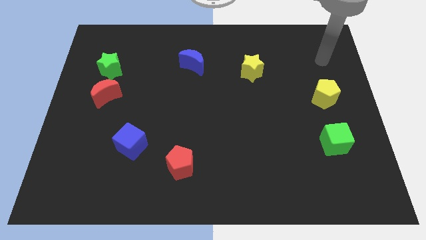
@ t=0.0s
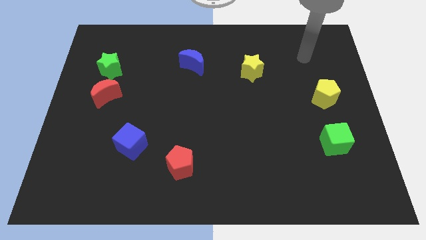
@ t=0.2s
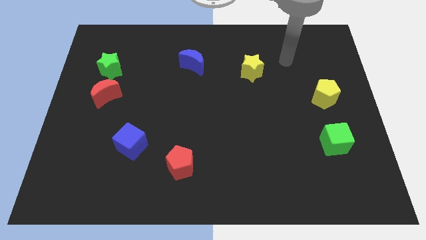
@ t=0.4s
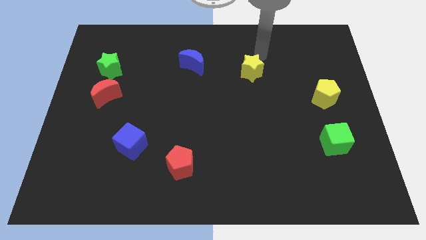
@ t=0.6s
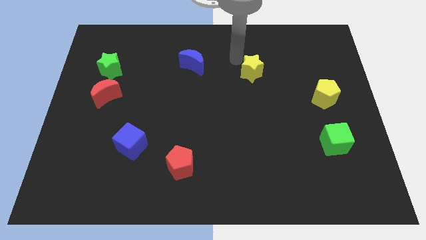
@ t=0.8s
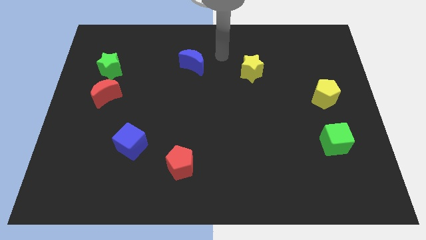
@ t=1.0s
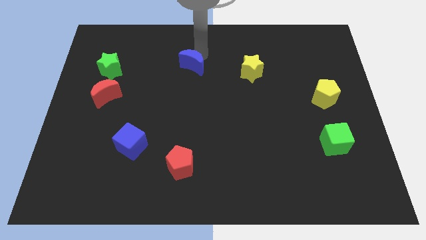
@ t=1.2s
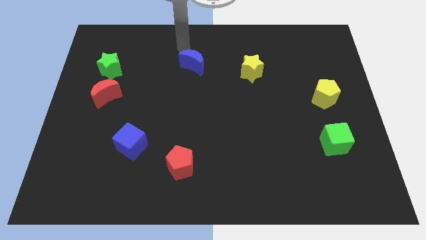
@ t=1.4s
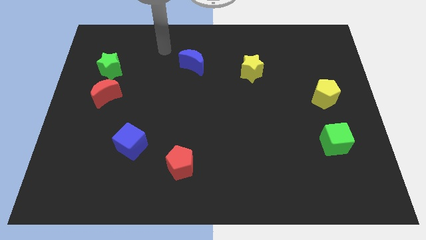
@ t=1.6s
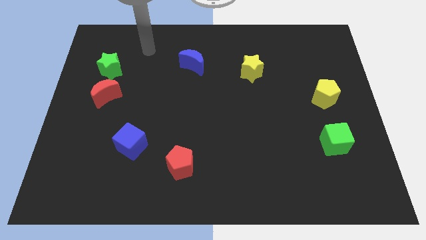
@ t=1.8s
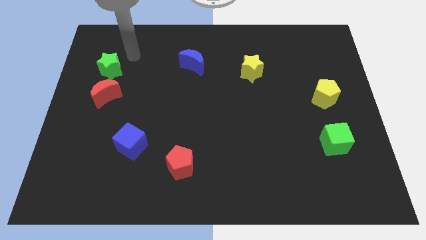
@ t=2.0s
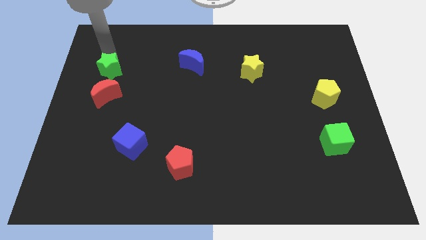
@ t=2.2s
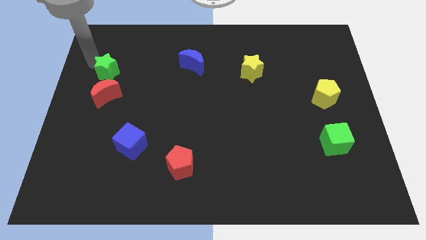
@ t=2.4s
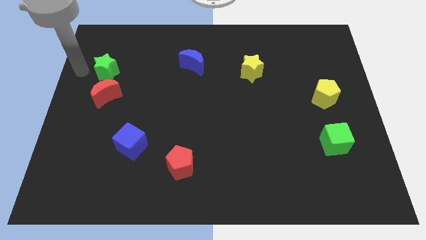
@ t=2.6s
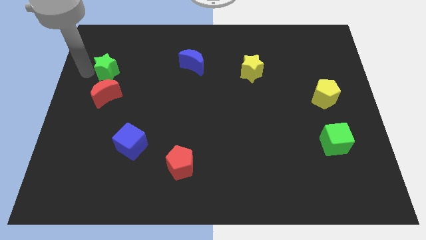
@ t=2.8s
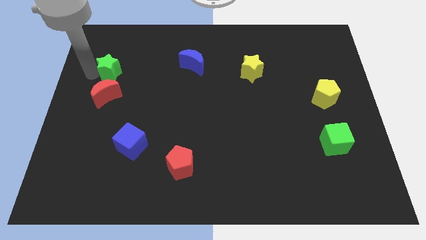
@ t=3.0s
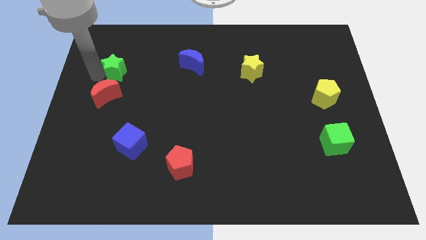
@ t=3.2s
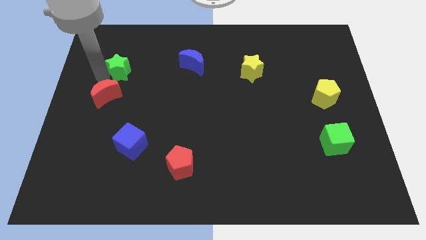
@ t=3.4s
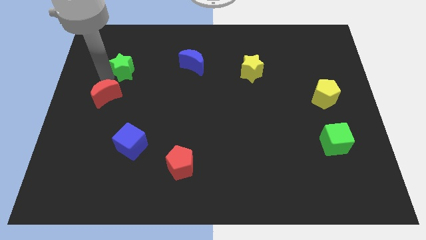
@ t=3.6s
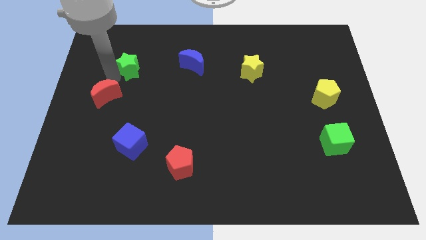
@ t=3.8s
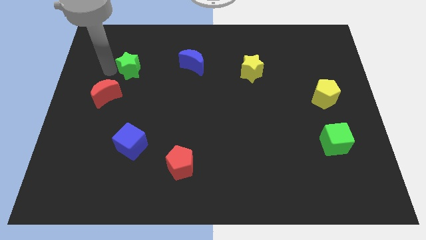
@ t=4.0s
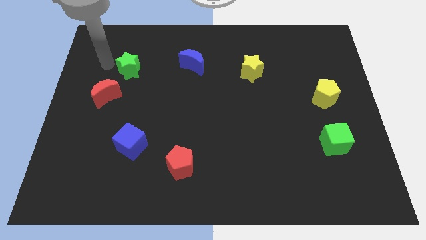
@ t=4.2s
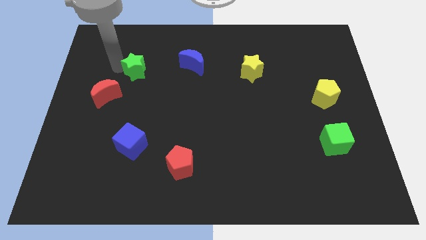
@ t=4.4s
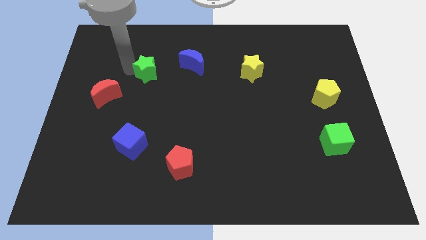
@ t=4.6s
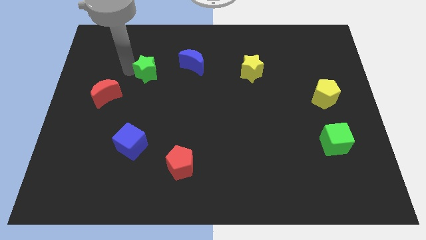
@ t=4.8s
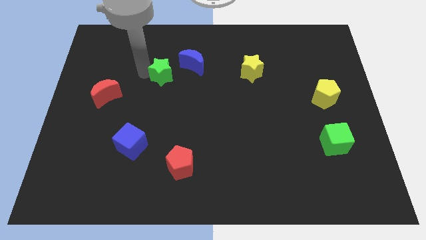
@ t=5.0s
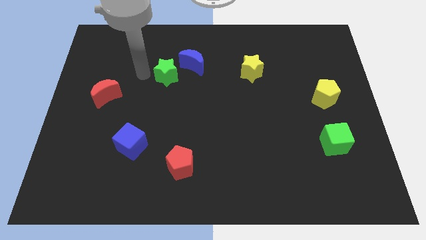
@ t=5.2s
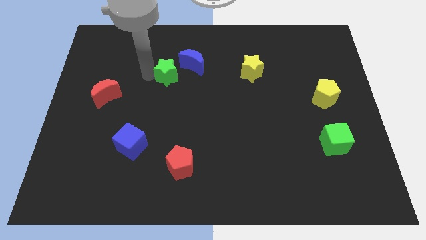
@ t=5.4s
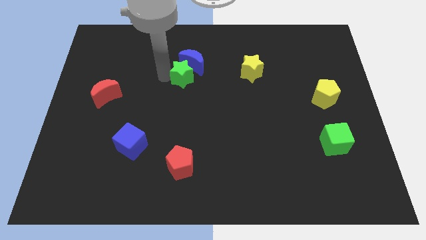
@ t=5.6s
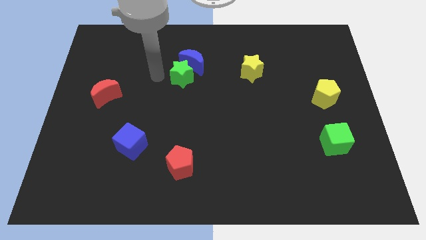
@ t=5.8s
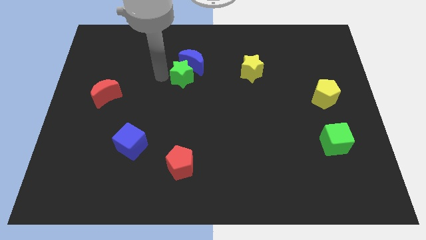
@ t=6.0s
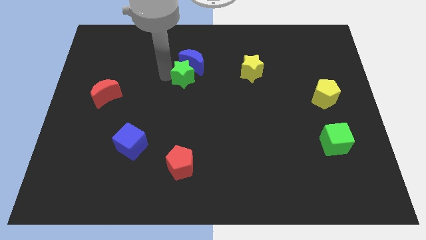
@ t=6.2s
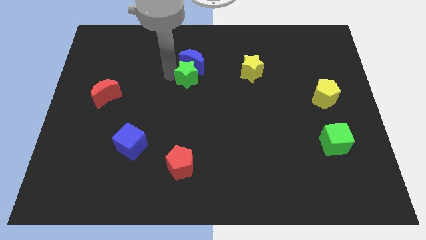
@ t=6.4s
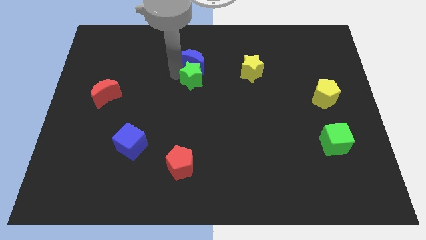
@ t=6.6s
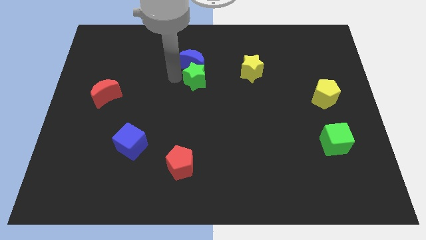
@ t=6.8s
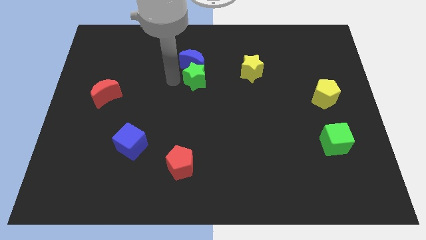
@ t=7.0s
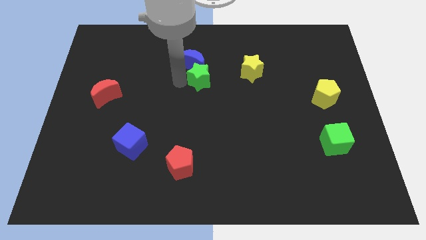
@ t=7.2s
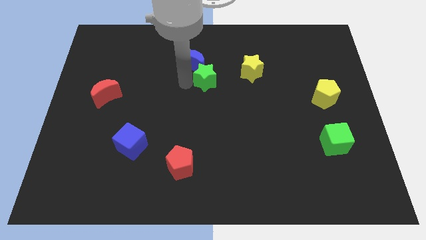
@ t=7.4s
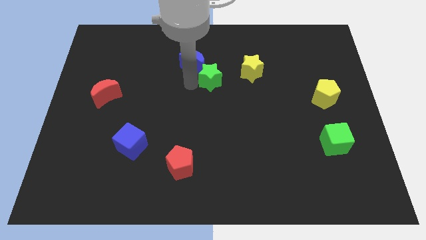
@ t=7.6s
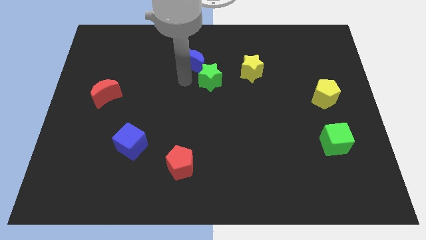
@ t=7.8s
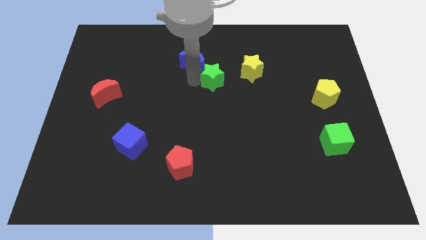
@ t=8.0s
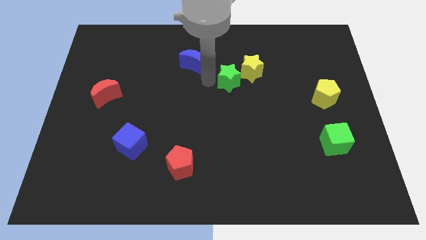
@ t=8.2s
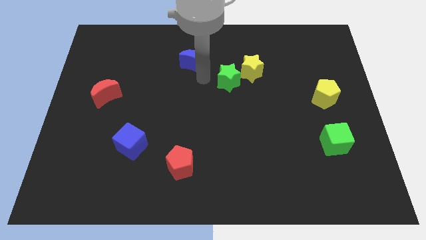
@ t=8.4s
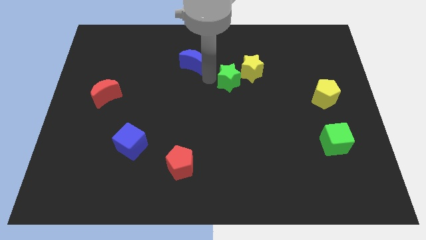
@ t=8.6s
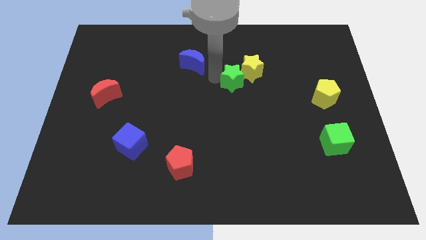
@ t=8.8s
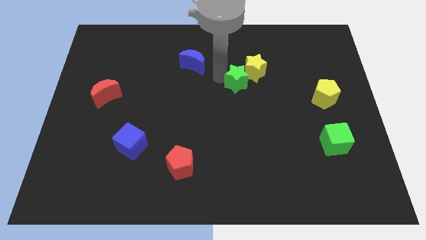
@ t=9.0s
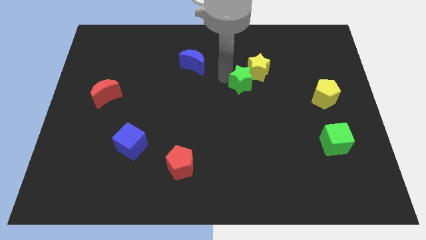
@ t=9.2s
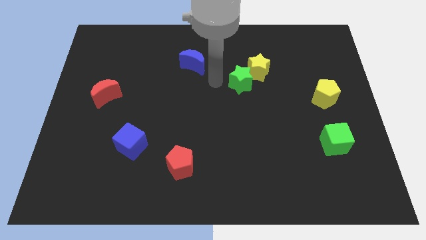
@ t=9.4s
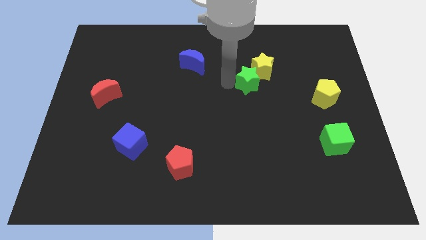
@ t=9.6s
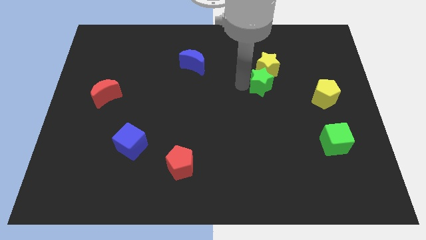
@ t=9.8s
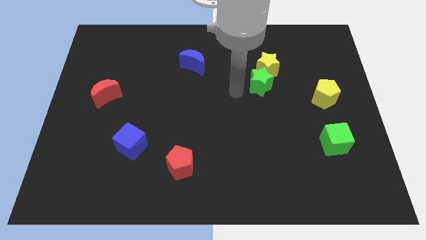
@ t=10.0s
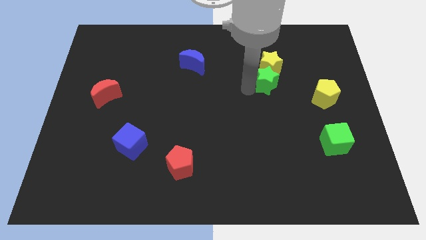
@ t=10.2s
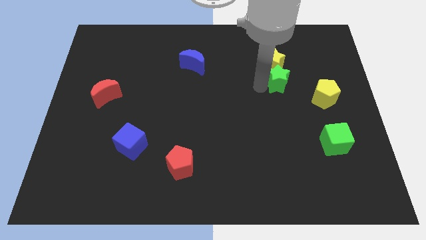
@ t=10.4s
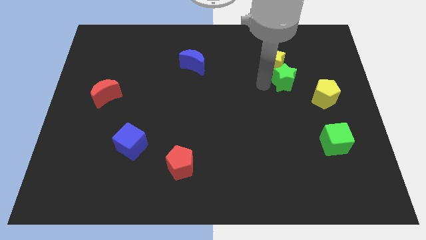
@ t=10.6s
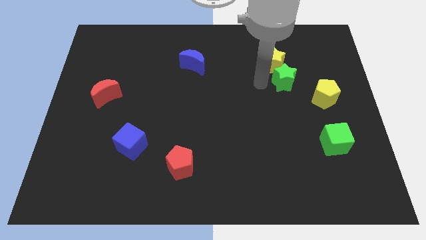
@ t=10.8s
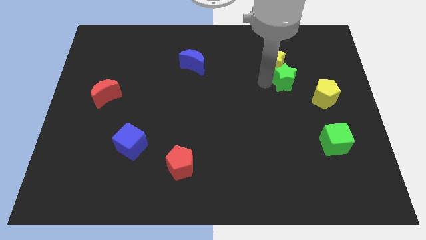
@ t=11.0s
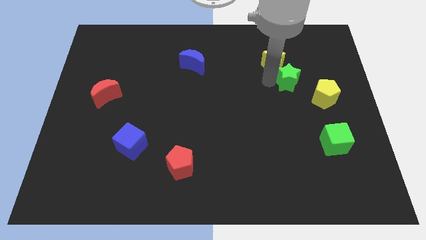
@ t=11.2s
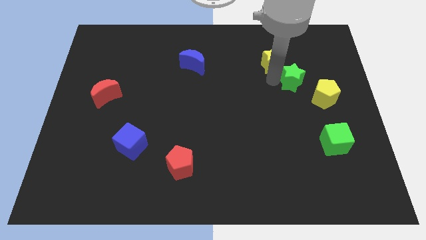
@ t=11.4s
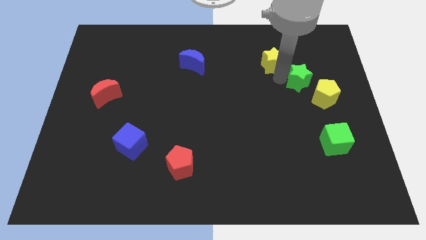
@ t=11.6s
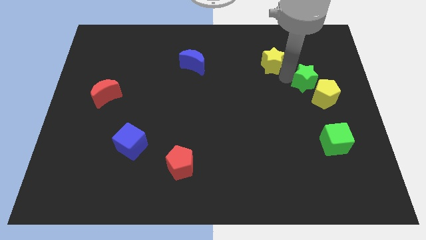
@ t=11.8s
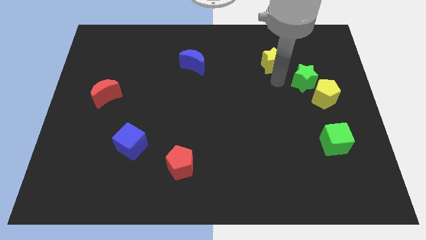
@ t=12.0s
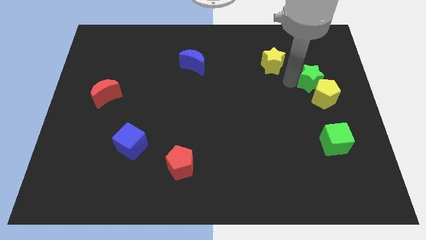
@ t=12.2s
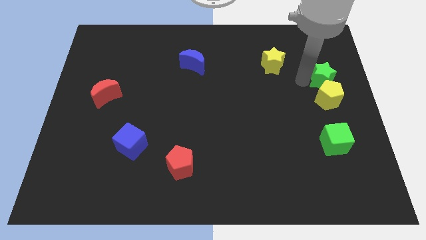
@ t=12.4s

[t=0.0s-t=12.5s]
put the green star to the center right

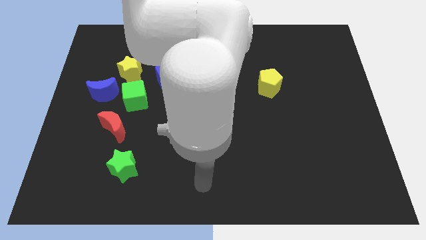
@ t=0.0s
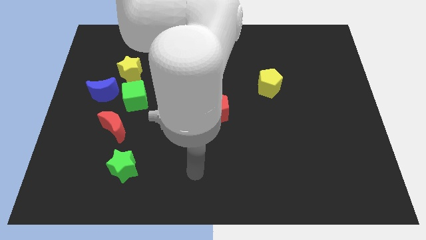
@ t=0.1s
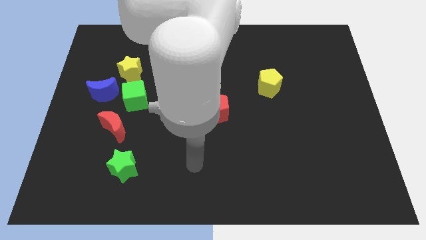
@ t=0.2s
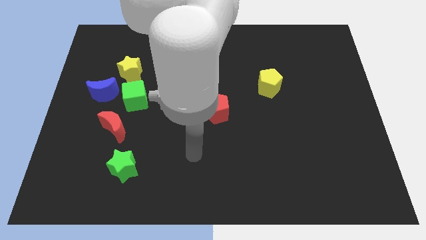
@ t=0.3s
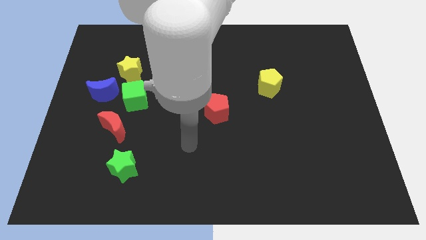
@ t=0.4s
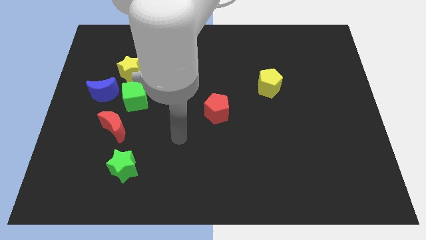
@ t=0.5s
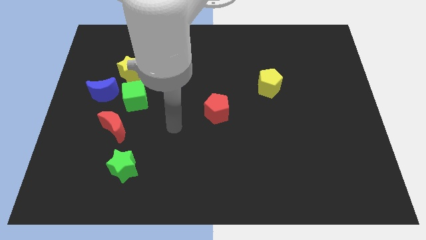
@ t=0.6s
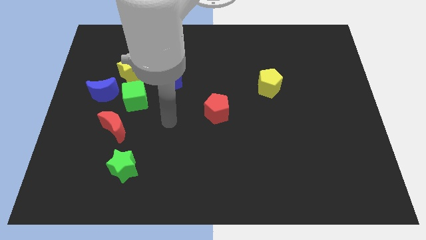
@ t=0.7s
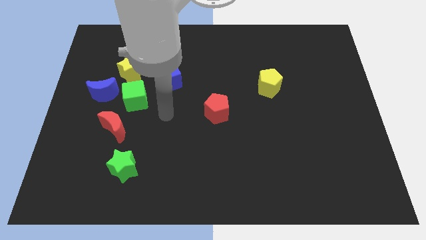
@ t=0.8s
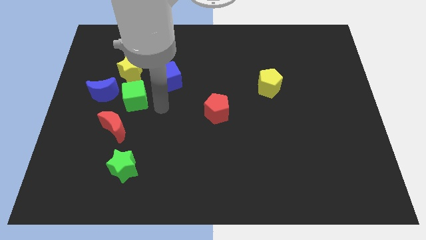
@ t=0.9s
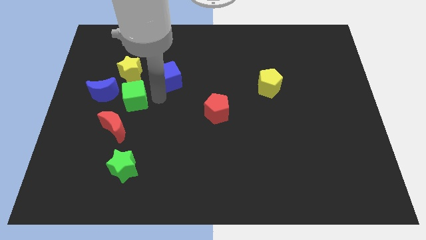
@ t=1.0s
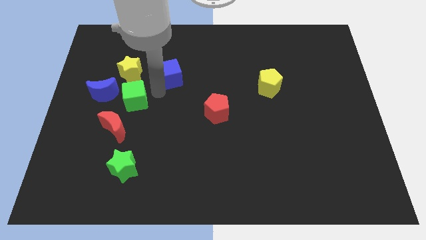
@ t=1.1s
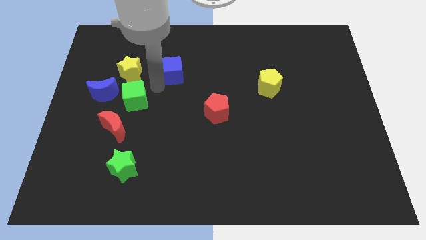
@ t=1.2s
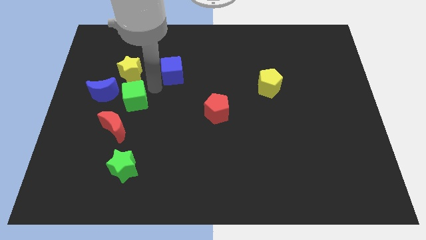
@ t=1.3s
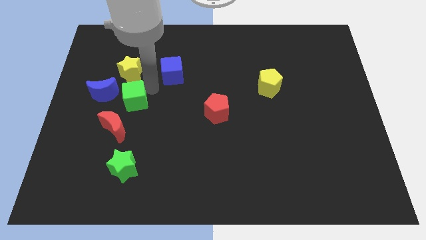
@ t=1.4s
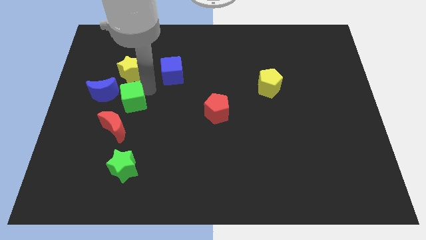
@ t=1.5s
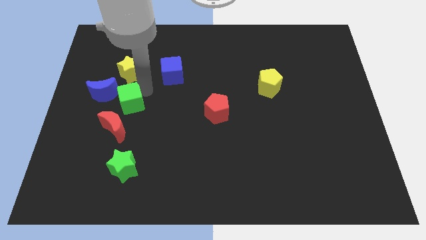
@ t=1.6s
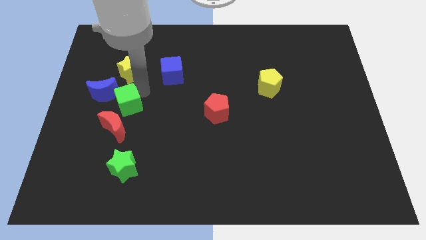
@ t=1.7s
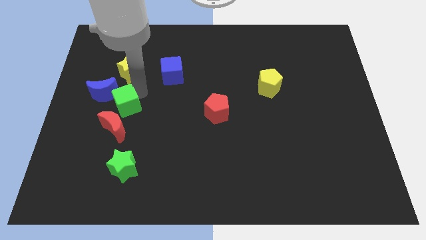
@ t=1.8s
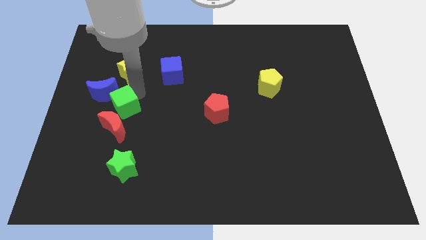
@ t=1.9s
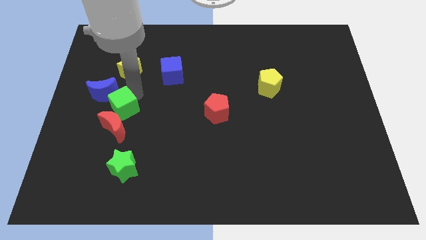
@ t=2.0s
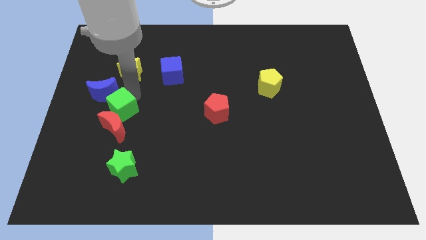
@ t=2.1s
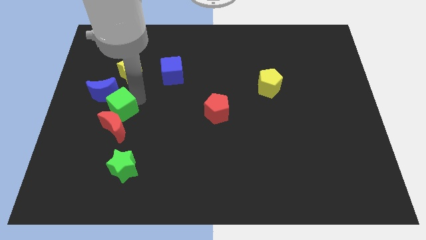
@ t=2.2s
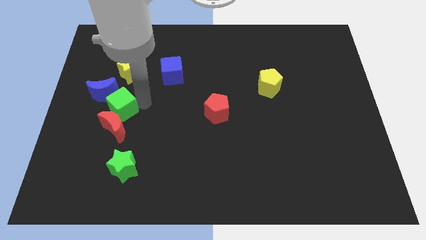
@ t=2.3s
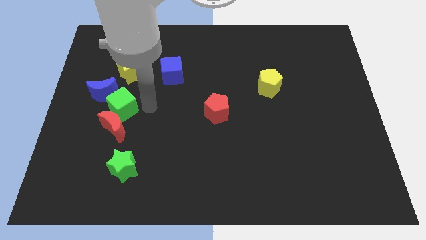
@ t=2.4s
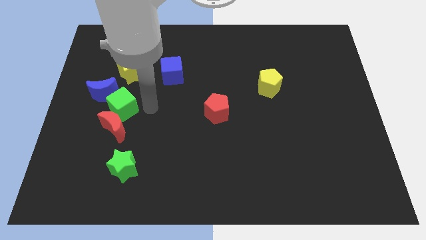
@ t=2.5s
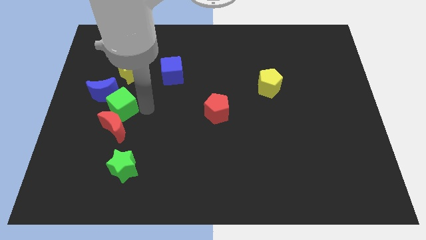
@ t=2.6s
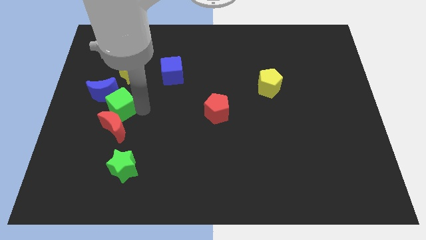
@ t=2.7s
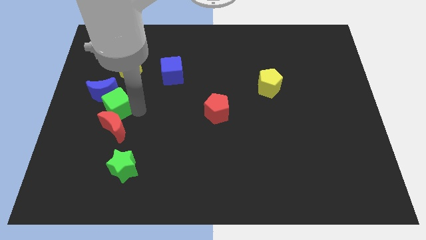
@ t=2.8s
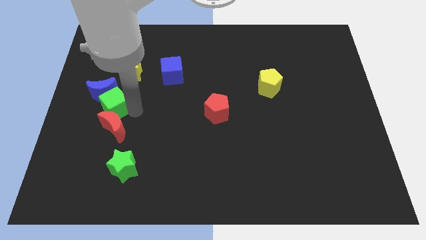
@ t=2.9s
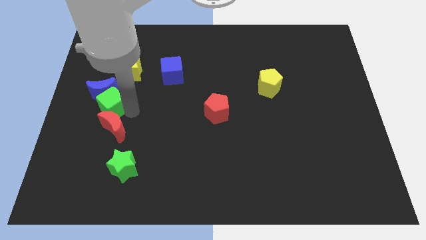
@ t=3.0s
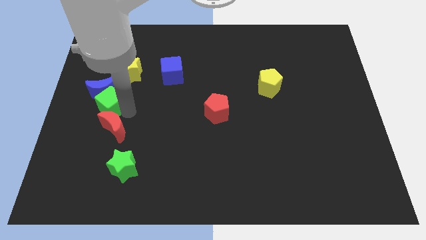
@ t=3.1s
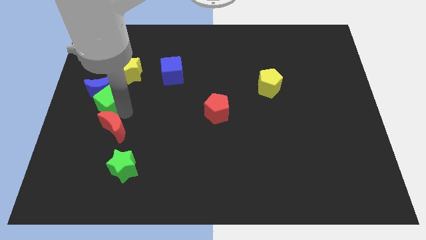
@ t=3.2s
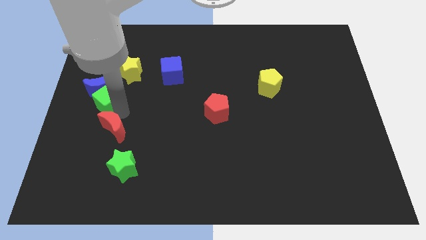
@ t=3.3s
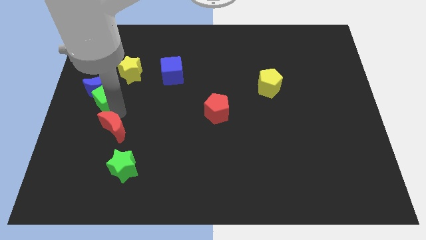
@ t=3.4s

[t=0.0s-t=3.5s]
move the green cube to the left side of the board
